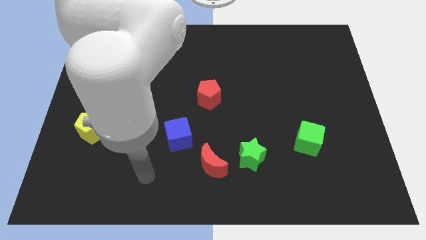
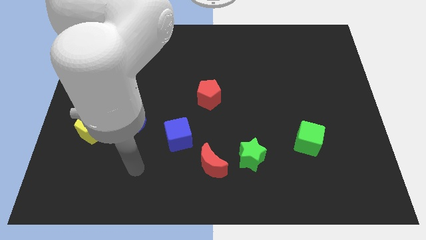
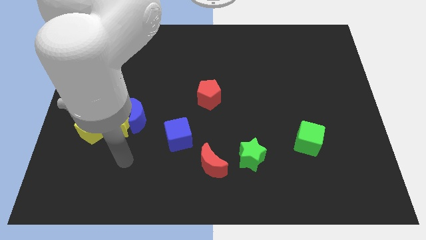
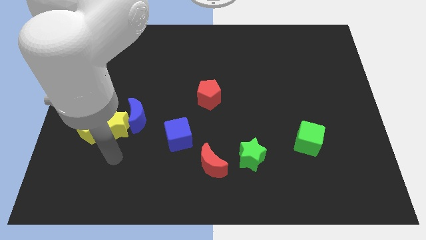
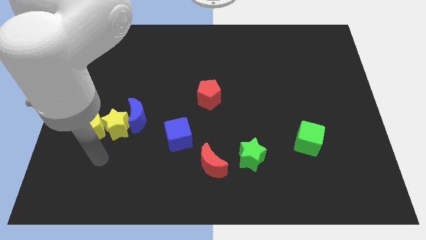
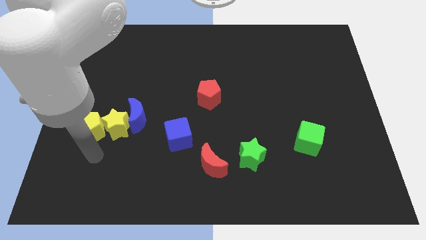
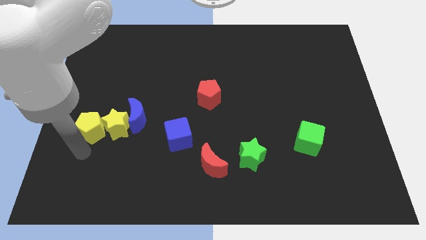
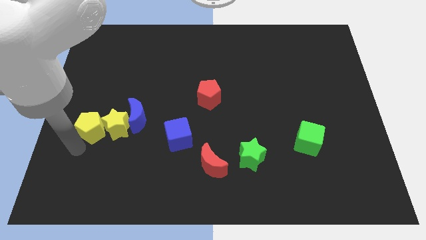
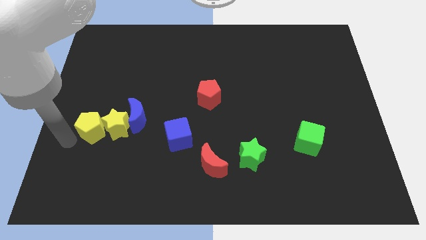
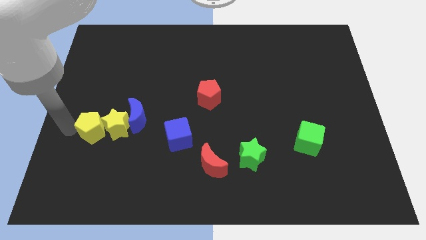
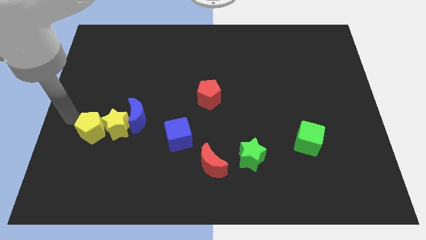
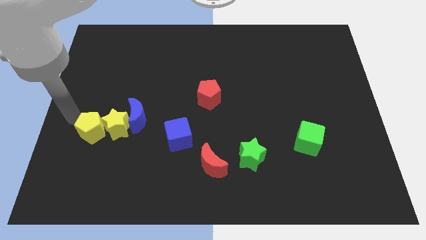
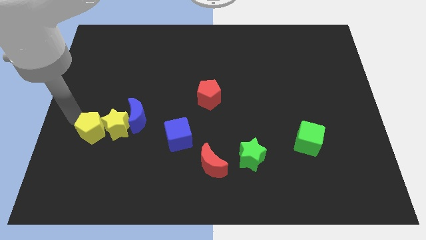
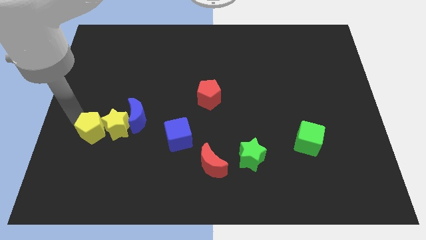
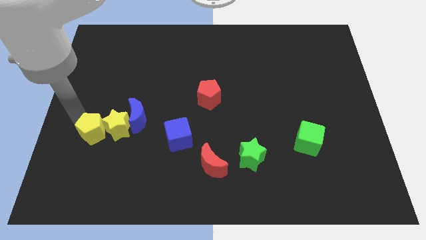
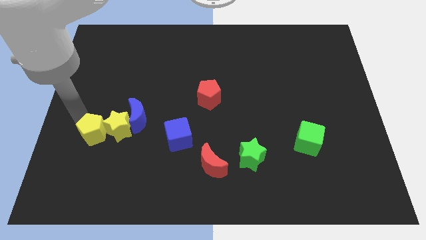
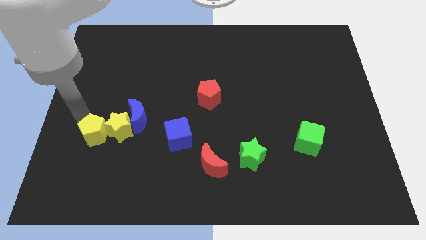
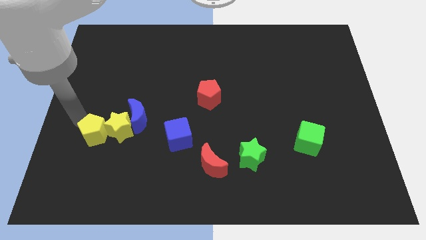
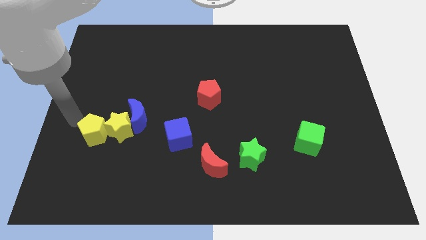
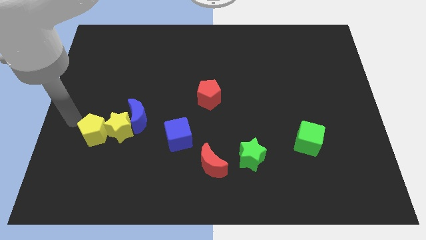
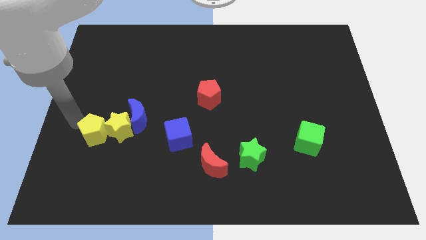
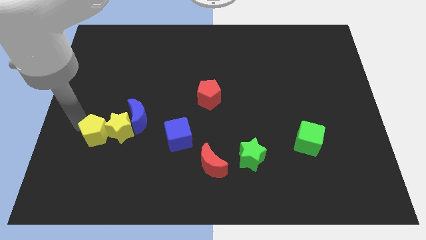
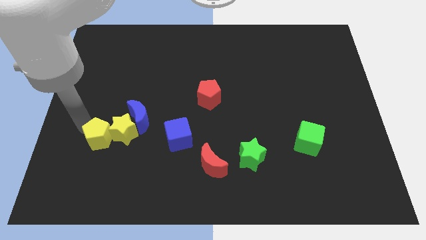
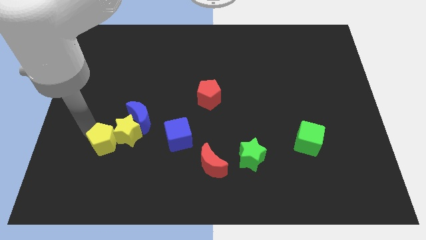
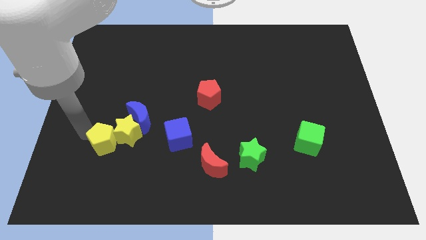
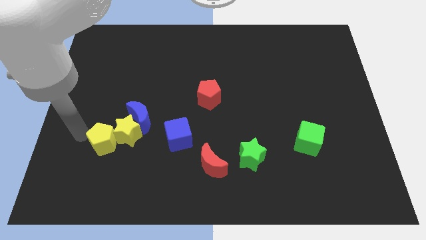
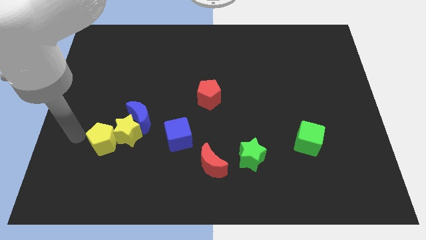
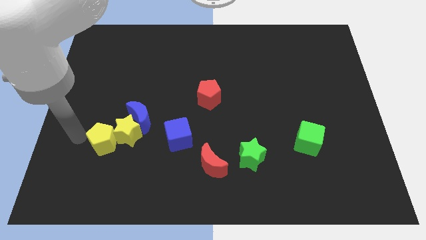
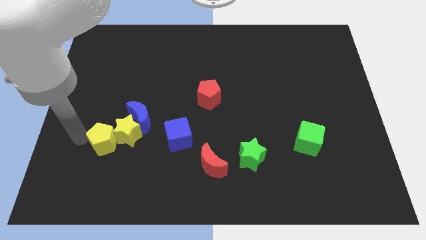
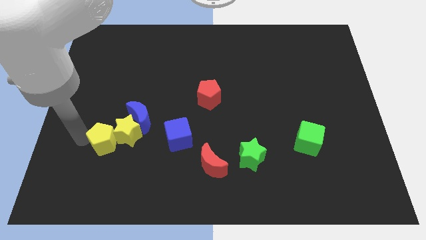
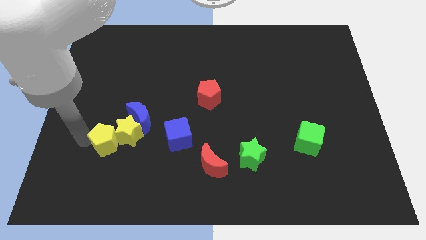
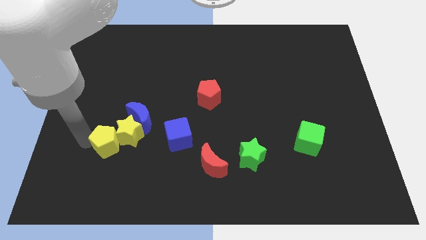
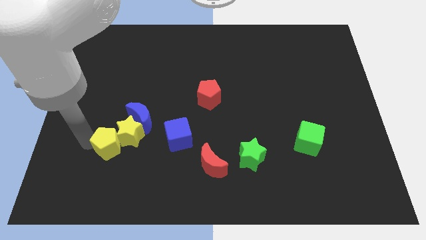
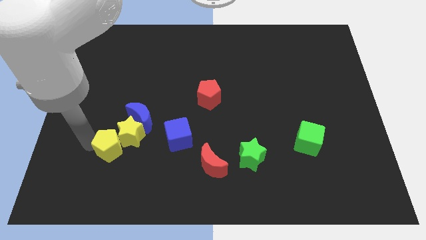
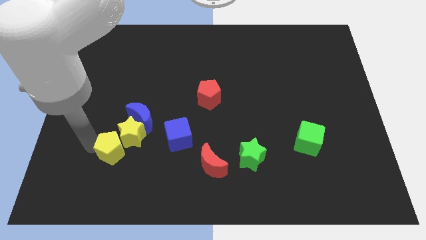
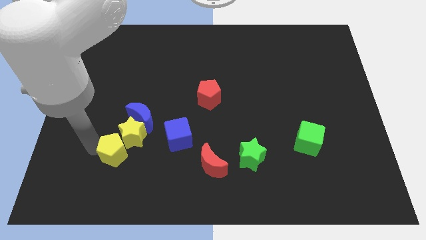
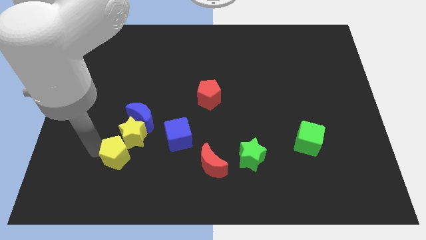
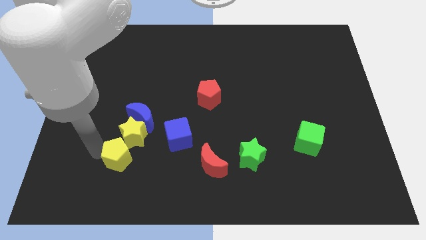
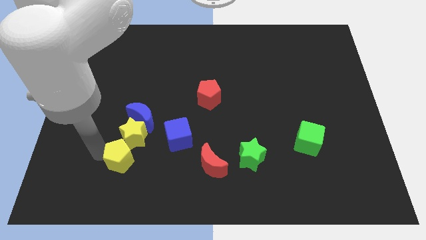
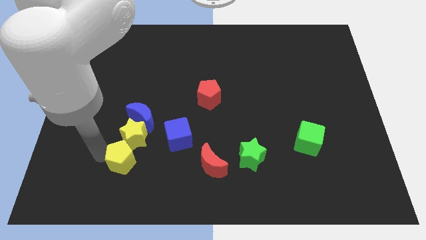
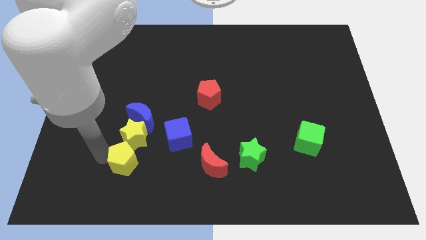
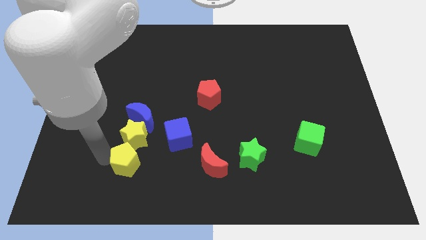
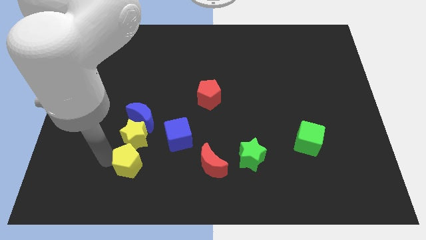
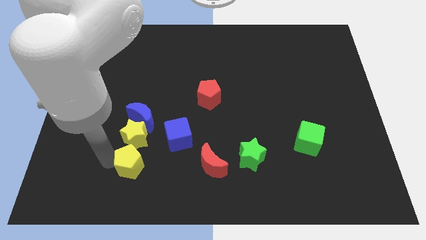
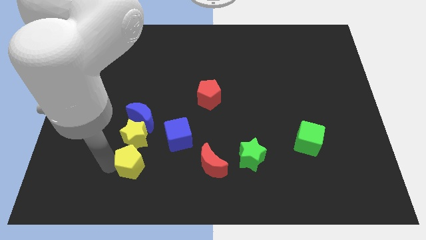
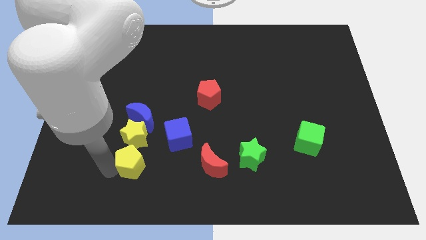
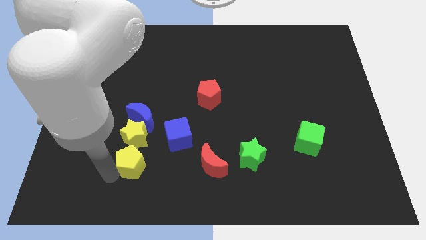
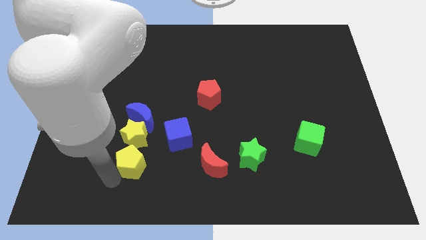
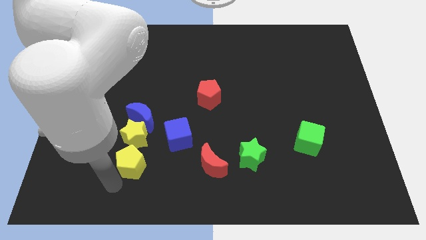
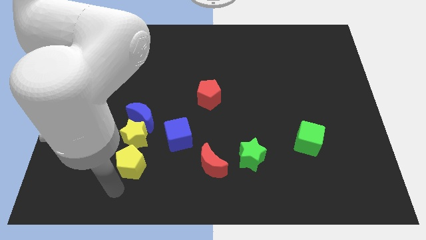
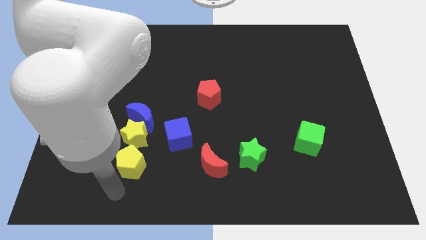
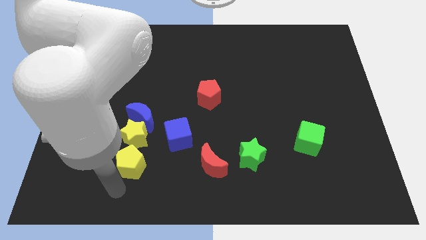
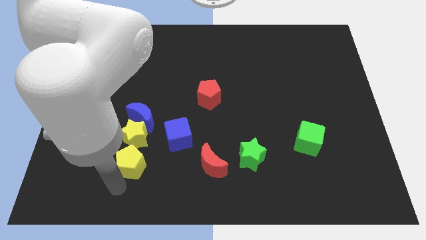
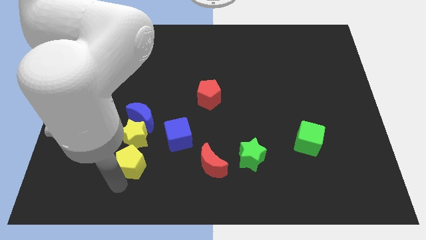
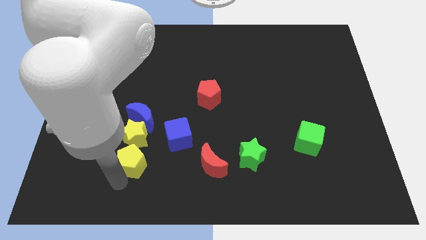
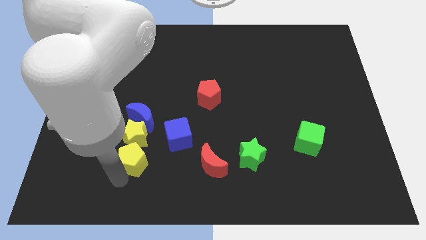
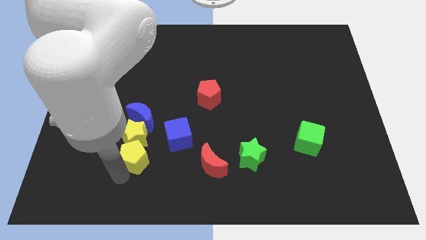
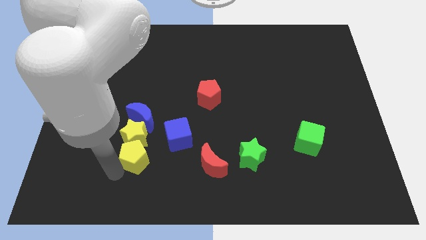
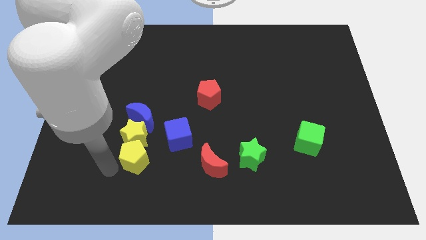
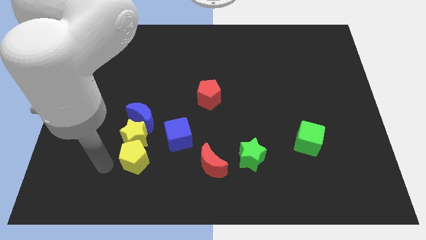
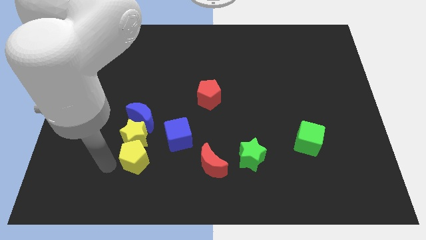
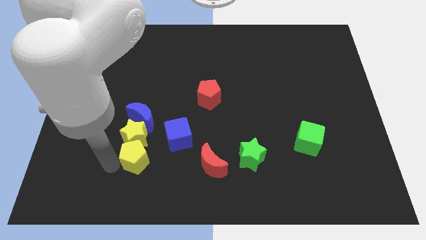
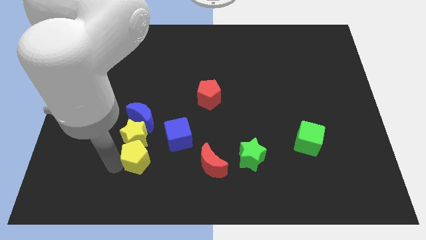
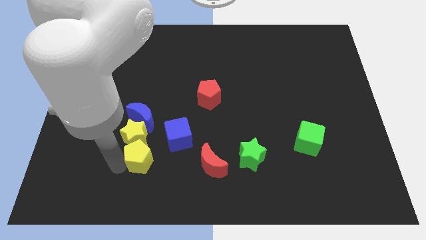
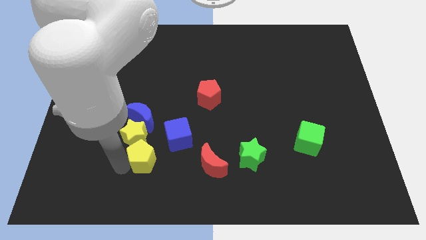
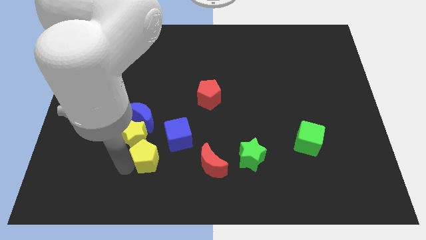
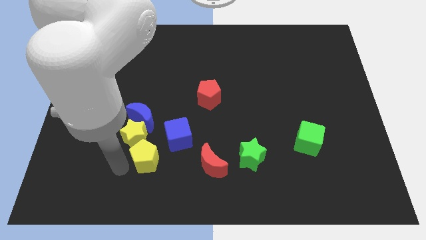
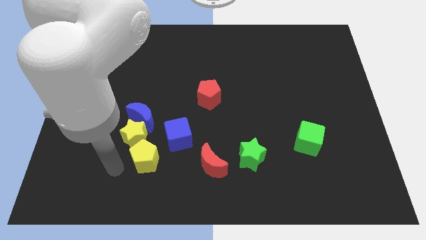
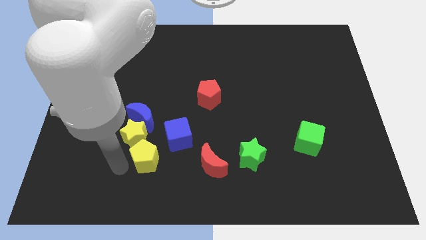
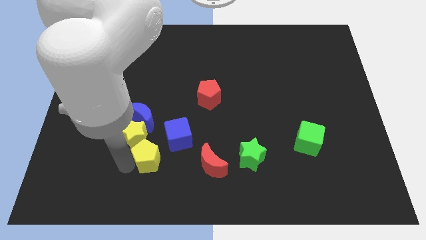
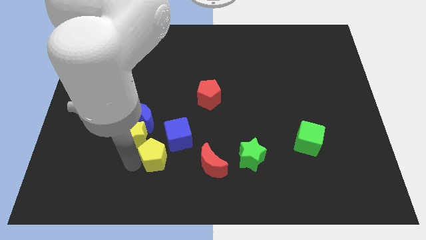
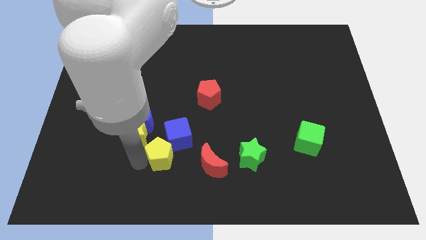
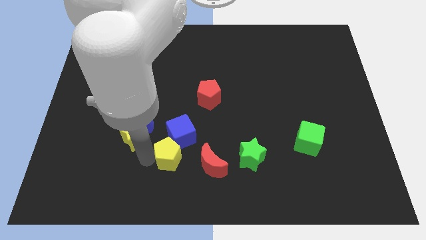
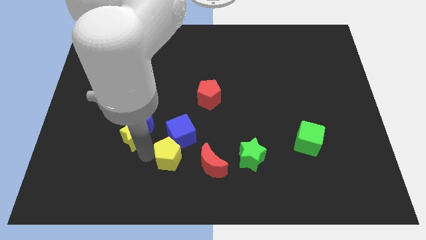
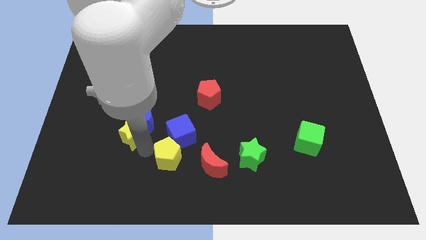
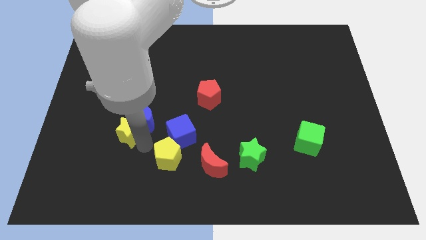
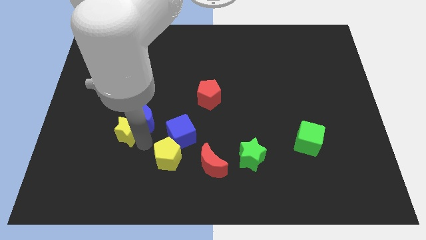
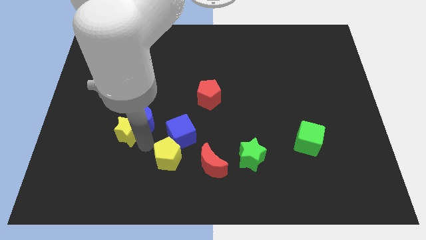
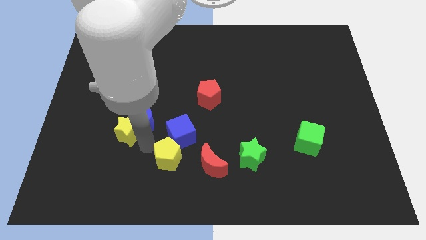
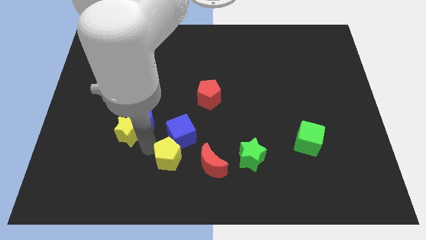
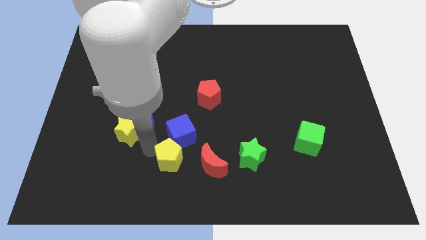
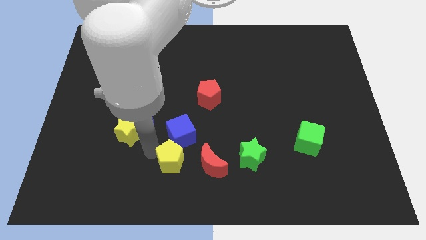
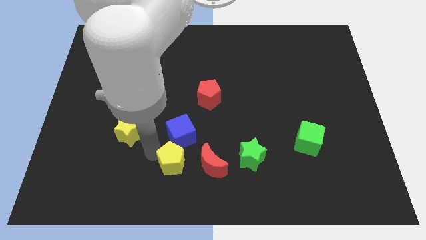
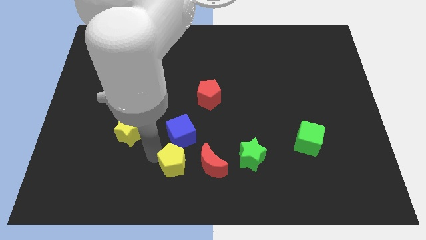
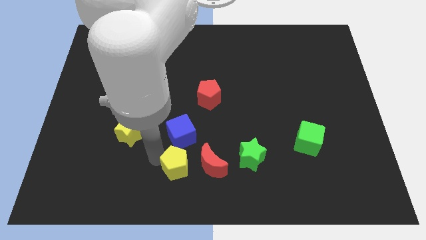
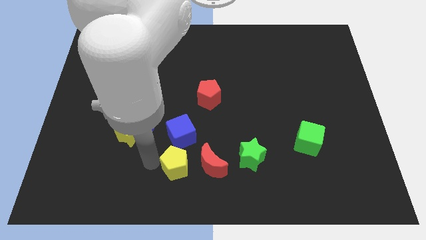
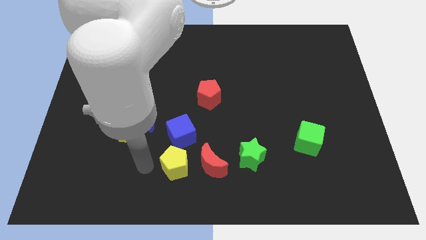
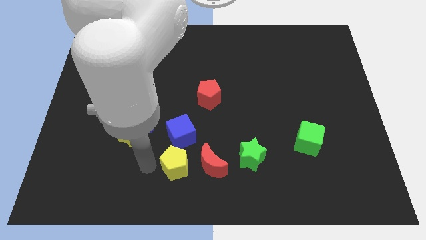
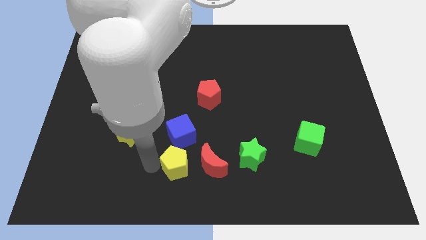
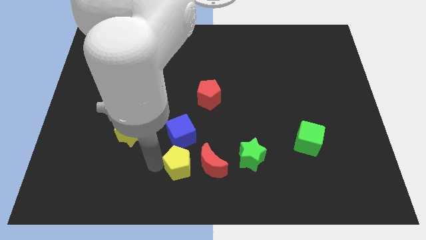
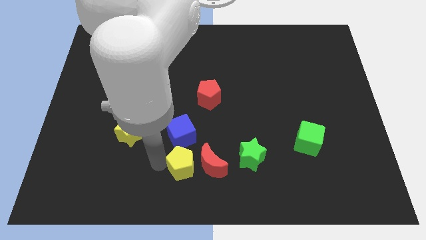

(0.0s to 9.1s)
move the yellow pentagon to the red moon
